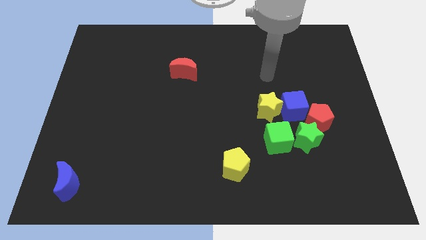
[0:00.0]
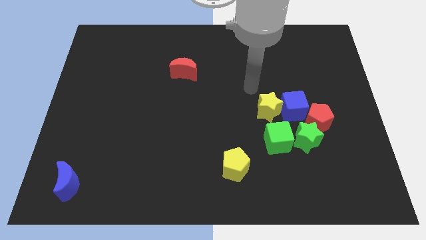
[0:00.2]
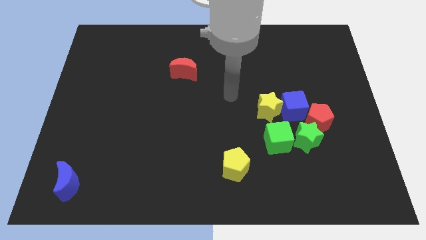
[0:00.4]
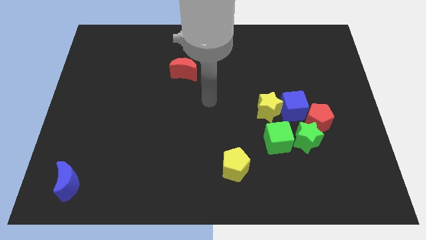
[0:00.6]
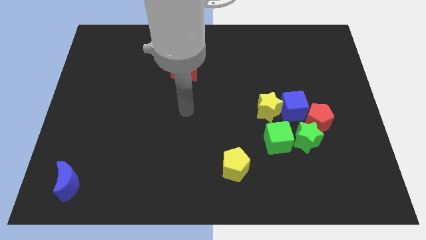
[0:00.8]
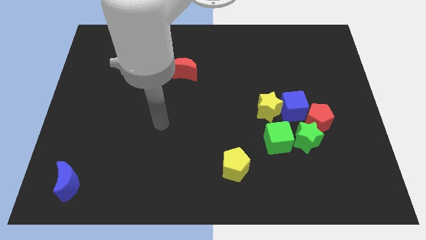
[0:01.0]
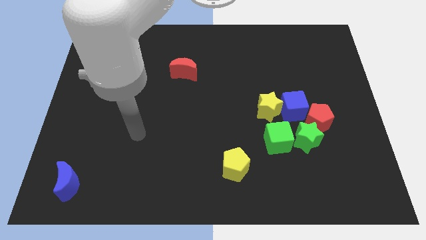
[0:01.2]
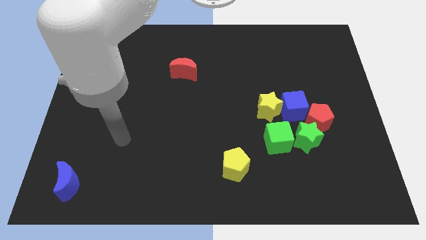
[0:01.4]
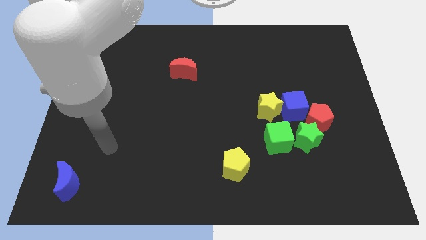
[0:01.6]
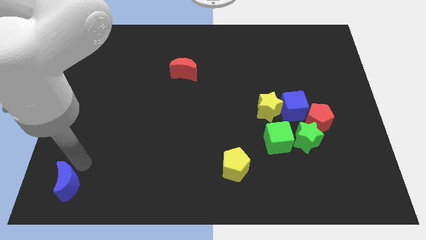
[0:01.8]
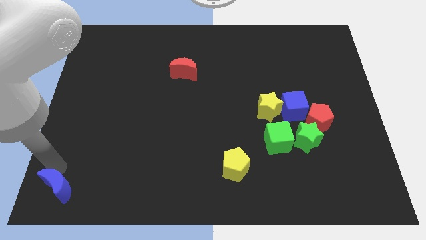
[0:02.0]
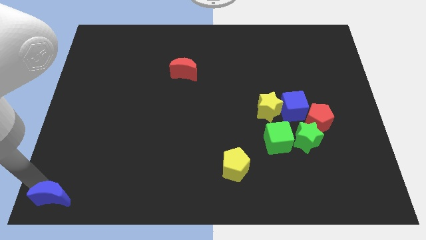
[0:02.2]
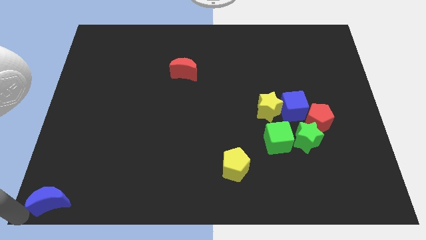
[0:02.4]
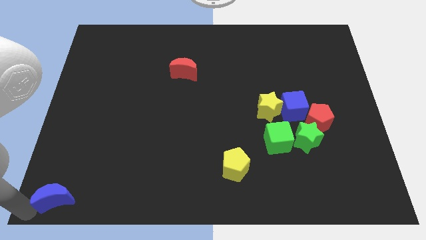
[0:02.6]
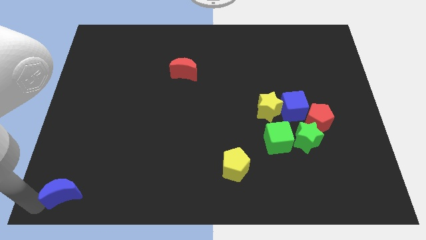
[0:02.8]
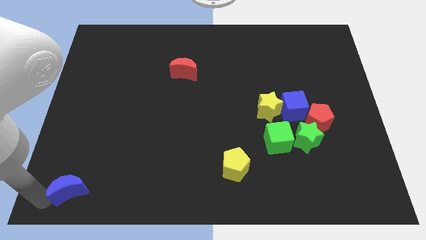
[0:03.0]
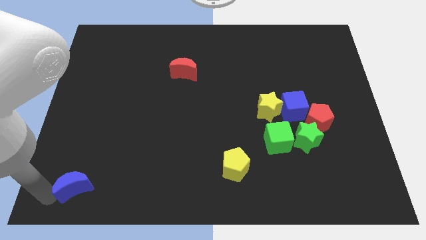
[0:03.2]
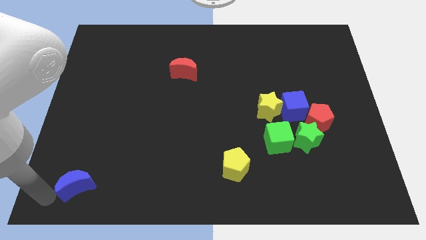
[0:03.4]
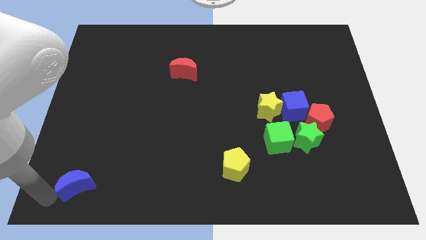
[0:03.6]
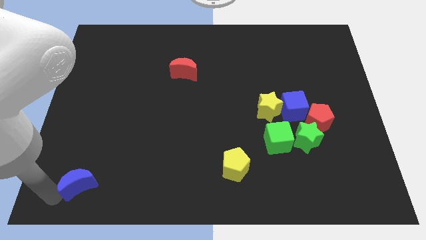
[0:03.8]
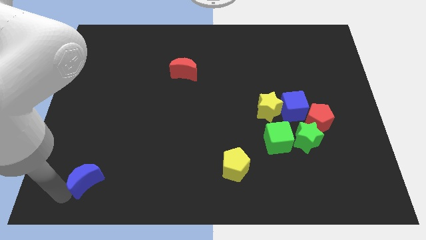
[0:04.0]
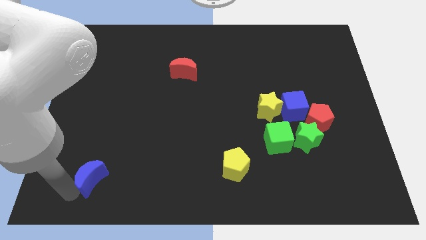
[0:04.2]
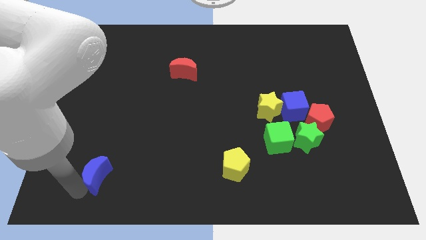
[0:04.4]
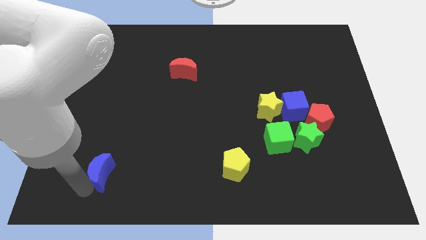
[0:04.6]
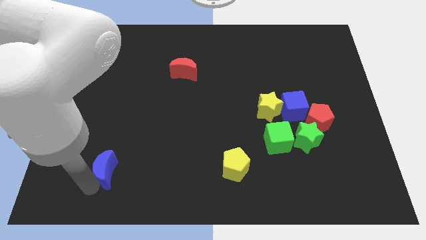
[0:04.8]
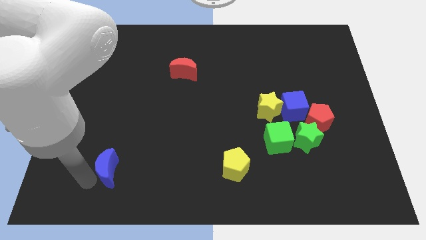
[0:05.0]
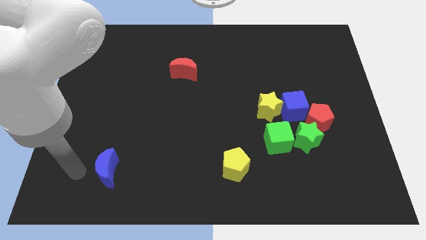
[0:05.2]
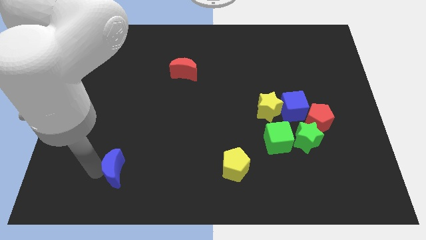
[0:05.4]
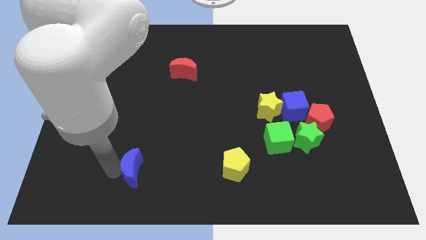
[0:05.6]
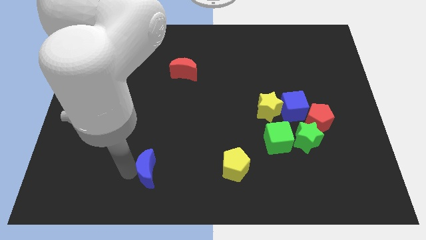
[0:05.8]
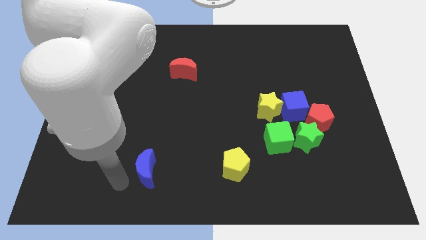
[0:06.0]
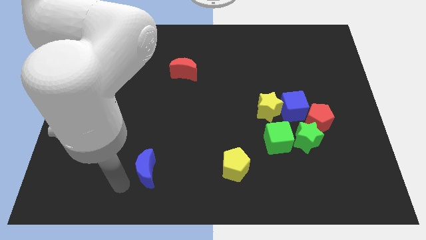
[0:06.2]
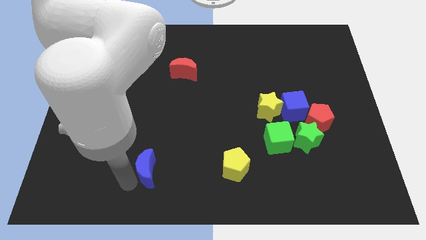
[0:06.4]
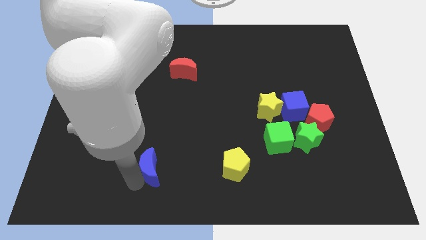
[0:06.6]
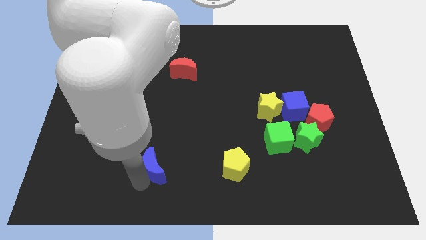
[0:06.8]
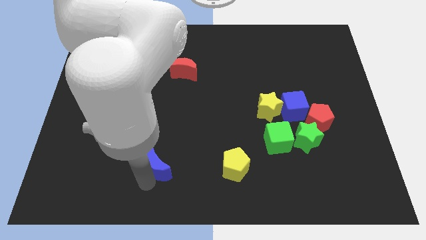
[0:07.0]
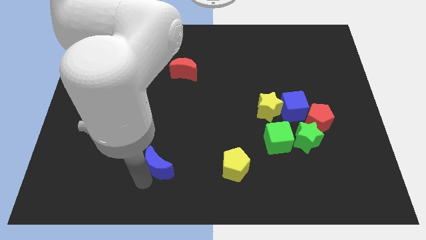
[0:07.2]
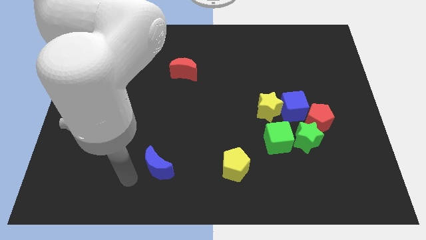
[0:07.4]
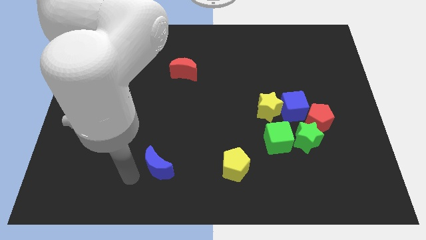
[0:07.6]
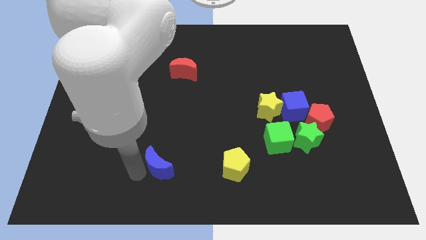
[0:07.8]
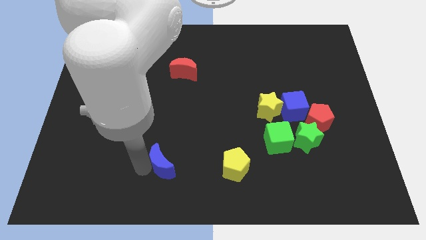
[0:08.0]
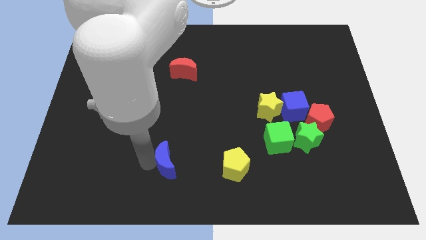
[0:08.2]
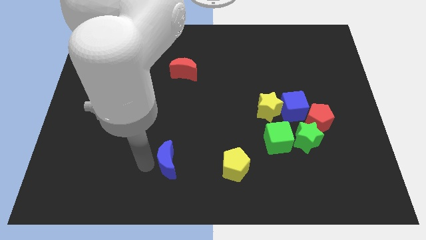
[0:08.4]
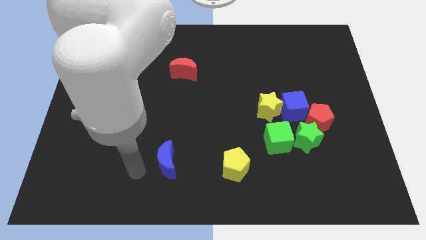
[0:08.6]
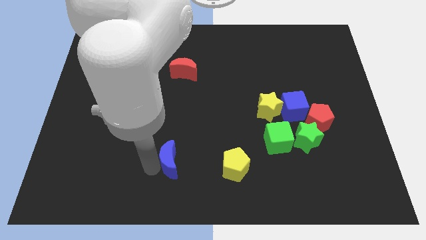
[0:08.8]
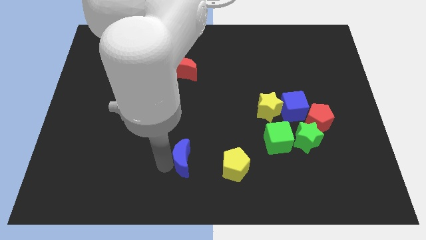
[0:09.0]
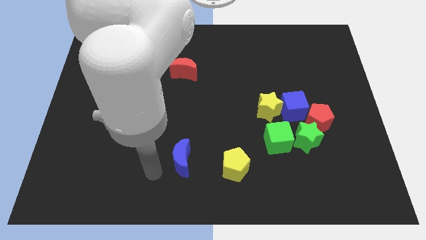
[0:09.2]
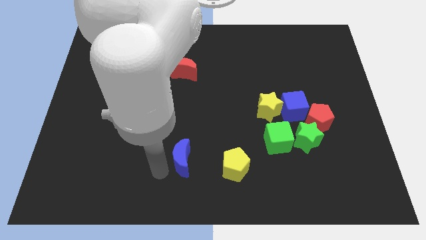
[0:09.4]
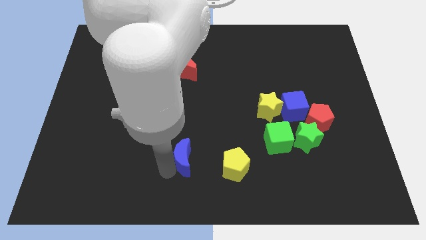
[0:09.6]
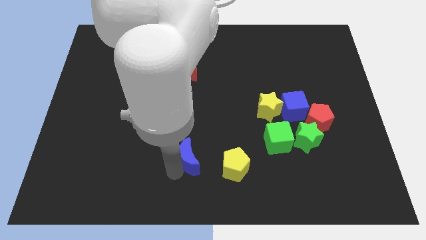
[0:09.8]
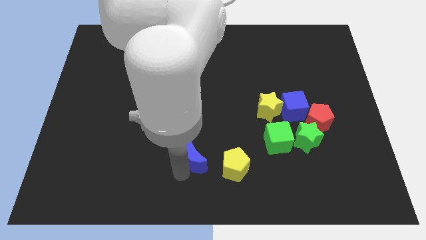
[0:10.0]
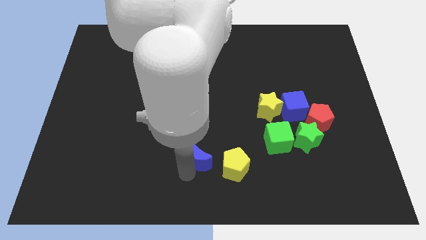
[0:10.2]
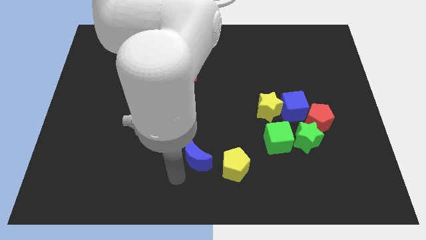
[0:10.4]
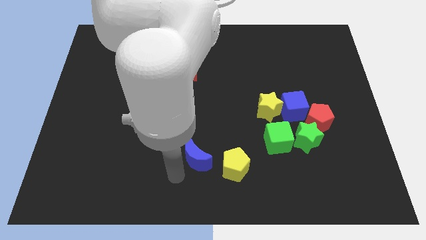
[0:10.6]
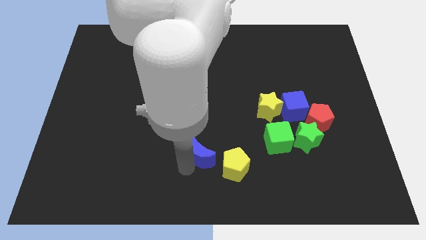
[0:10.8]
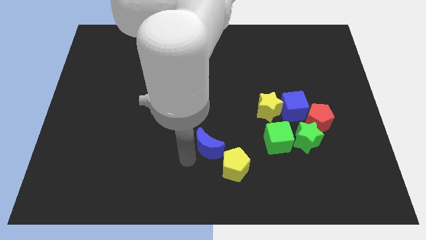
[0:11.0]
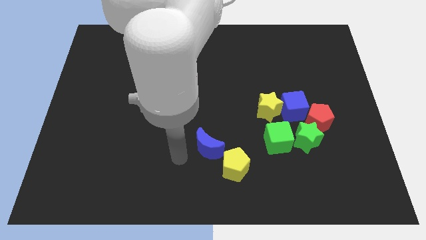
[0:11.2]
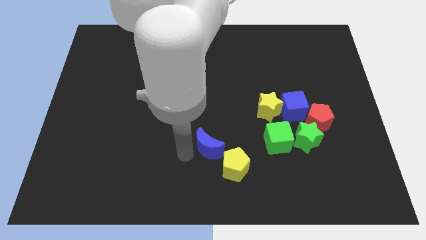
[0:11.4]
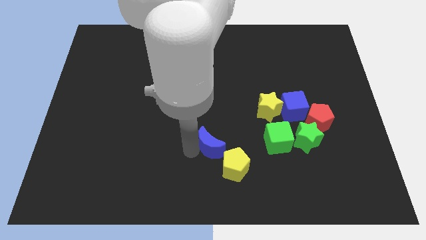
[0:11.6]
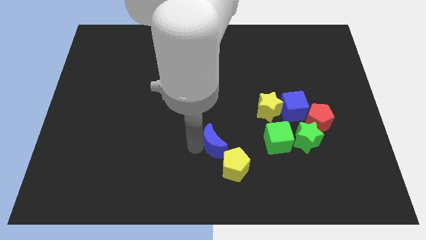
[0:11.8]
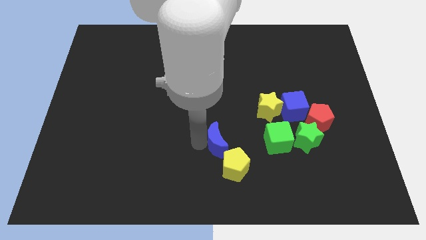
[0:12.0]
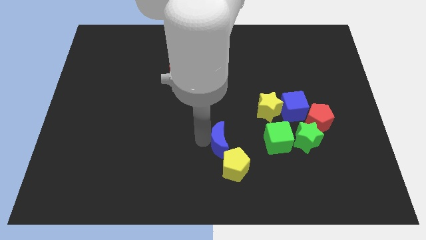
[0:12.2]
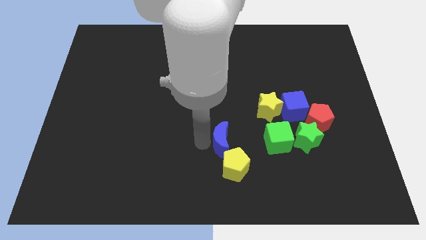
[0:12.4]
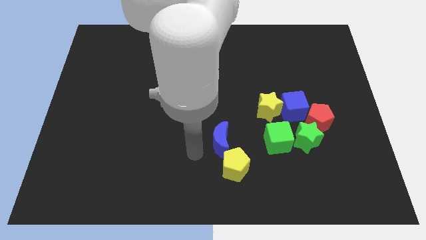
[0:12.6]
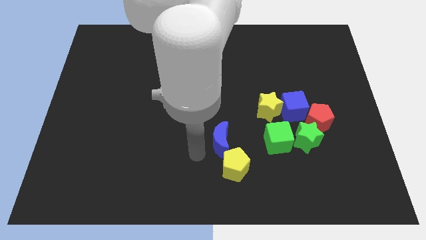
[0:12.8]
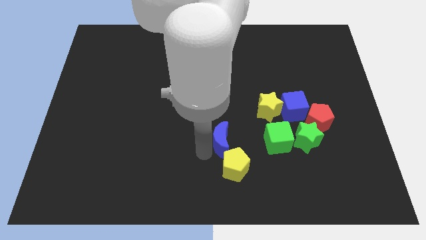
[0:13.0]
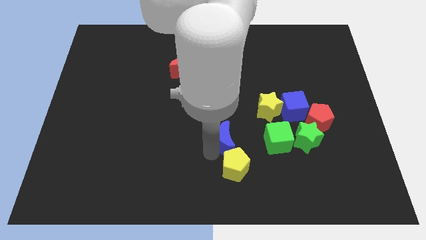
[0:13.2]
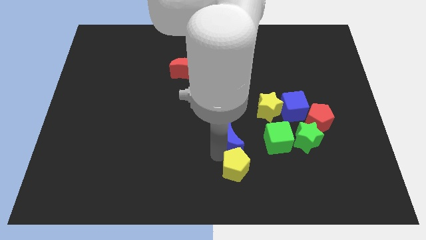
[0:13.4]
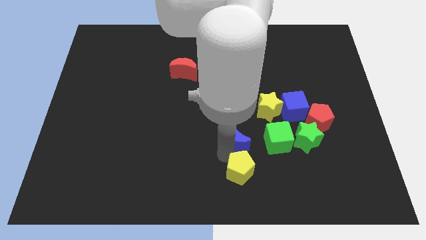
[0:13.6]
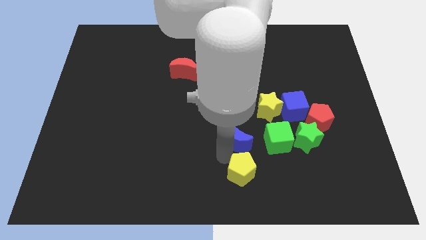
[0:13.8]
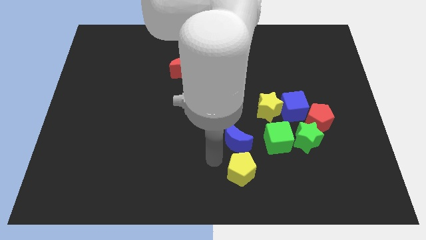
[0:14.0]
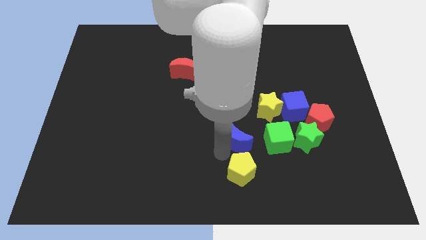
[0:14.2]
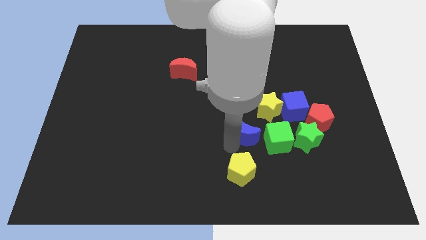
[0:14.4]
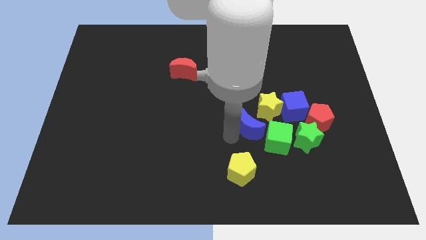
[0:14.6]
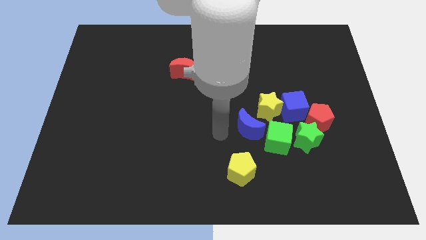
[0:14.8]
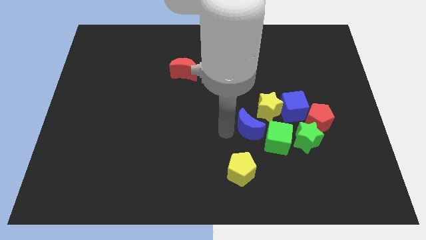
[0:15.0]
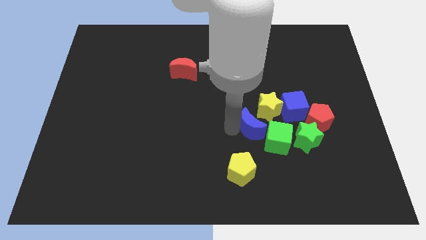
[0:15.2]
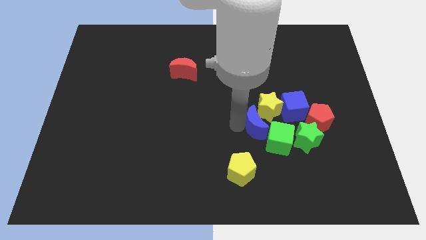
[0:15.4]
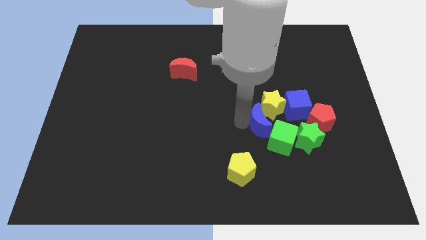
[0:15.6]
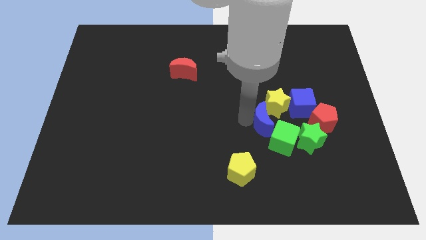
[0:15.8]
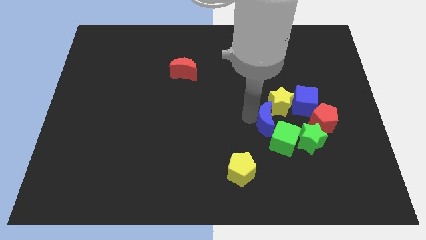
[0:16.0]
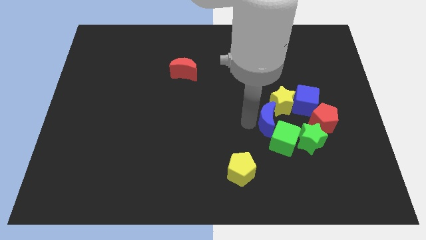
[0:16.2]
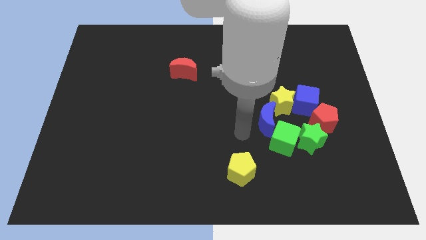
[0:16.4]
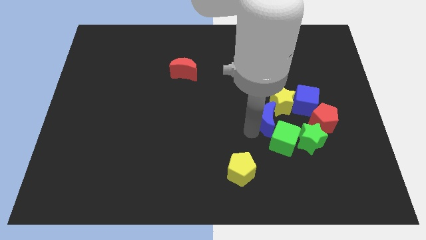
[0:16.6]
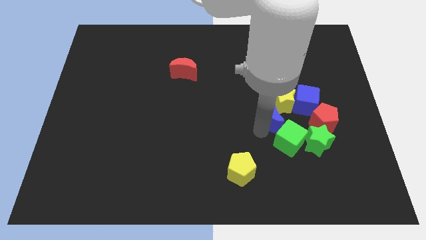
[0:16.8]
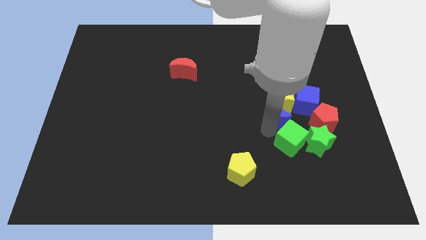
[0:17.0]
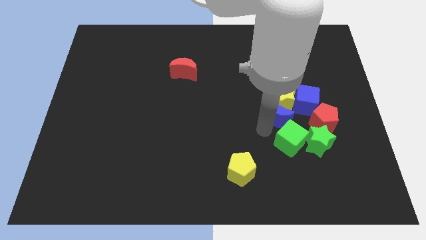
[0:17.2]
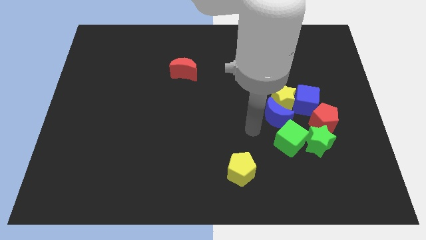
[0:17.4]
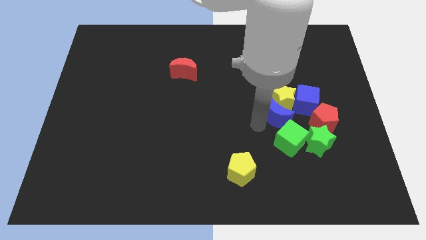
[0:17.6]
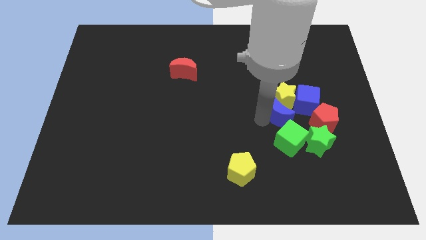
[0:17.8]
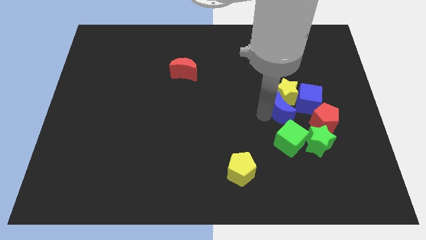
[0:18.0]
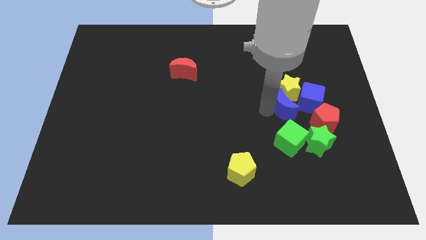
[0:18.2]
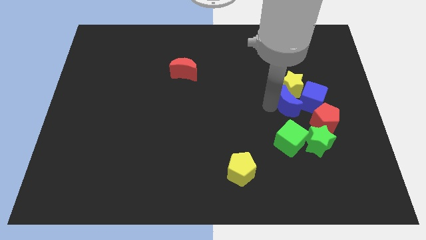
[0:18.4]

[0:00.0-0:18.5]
put the blue moon next to the blue cube
